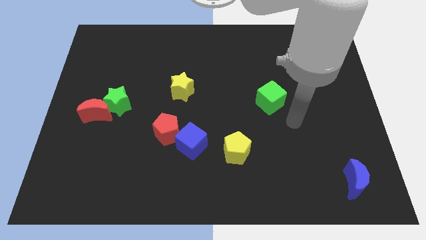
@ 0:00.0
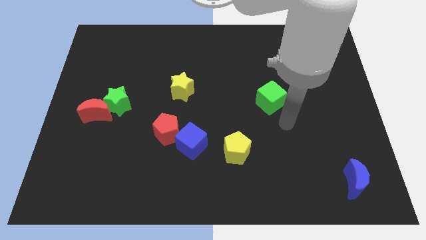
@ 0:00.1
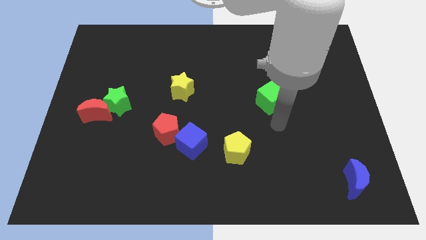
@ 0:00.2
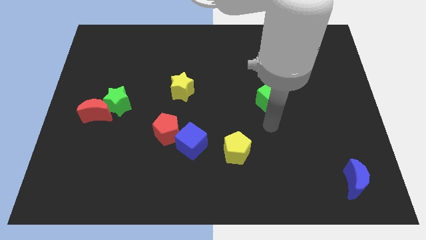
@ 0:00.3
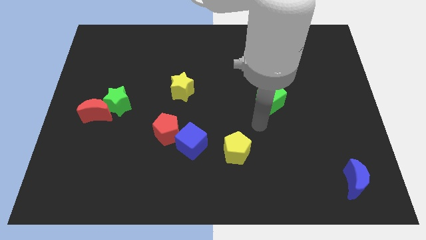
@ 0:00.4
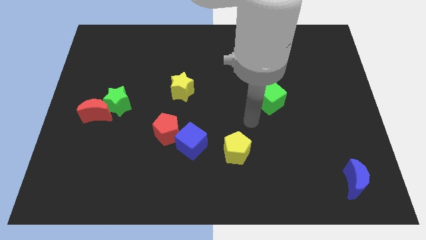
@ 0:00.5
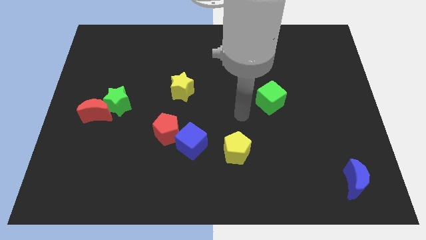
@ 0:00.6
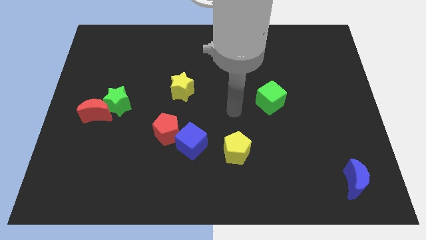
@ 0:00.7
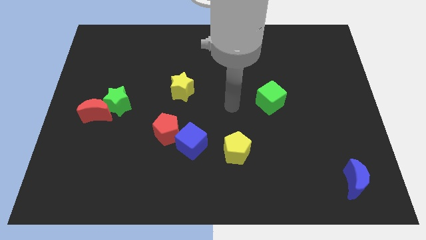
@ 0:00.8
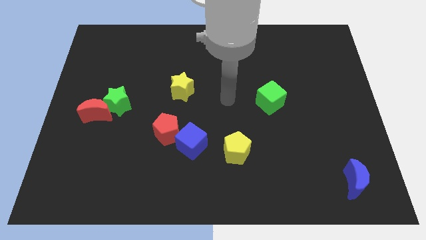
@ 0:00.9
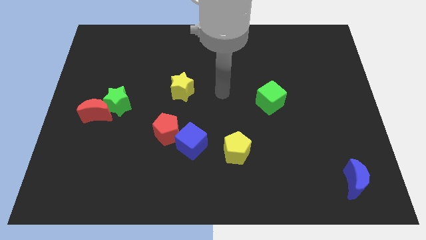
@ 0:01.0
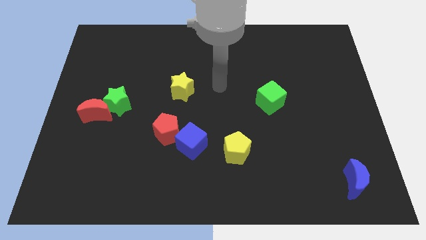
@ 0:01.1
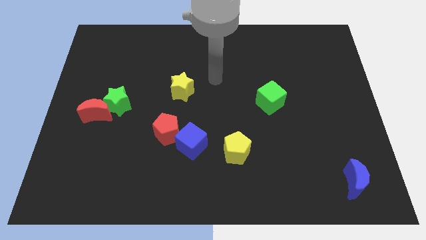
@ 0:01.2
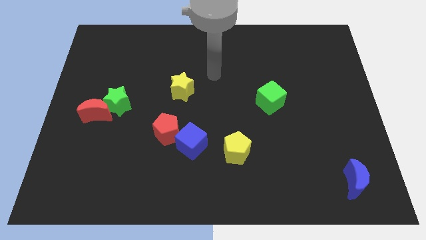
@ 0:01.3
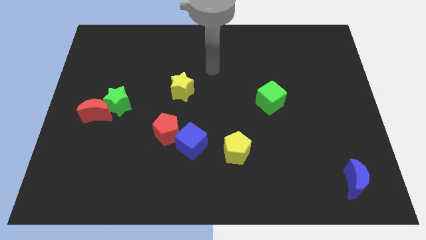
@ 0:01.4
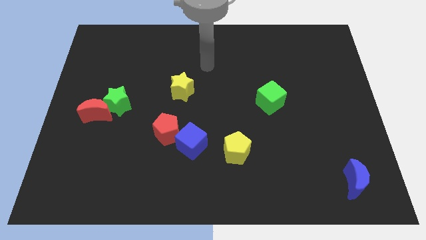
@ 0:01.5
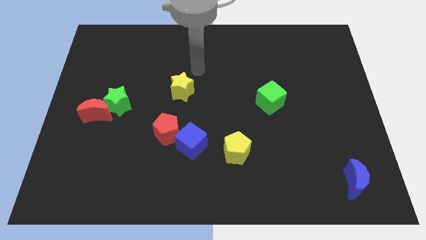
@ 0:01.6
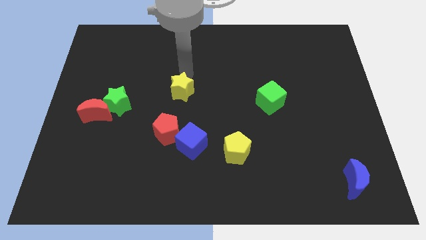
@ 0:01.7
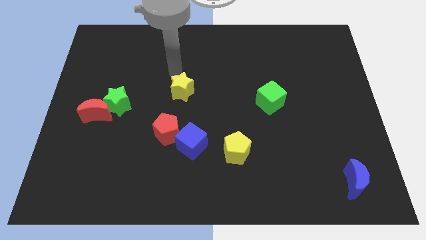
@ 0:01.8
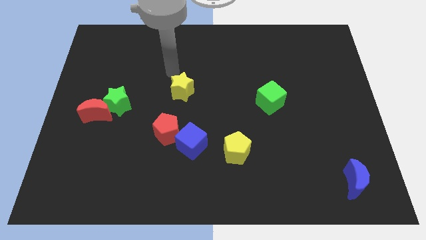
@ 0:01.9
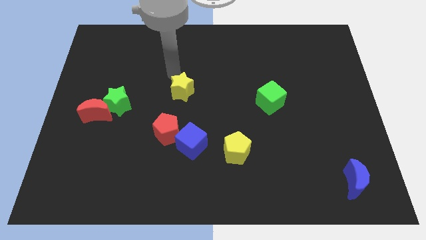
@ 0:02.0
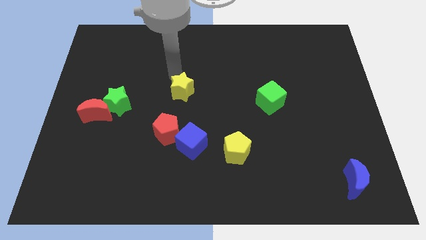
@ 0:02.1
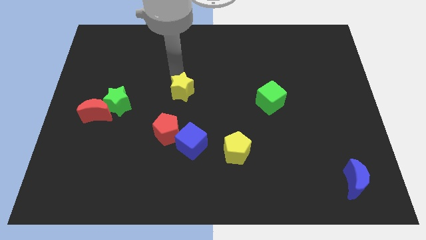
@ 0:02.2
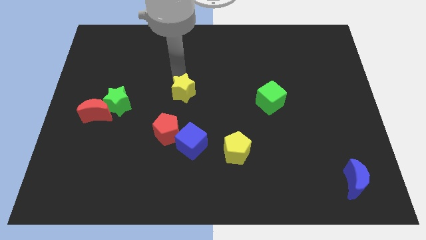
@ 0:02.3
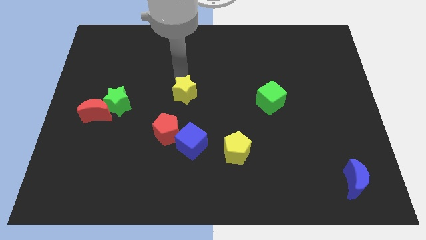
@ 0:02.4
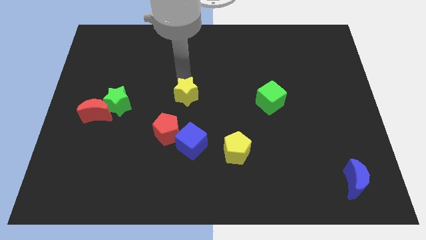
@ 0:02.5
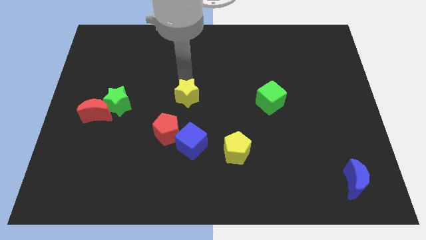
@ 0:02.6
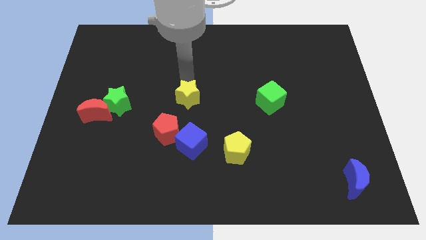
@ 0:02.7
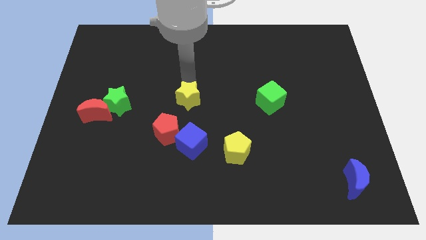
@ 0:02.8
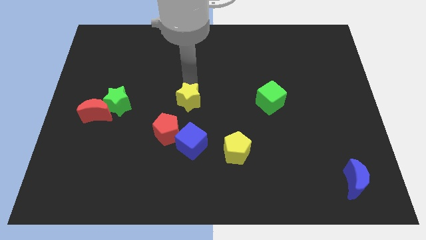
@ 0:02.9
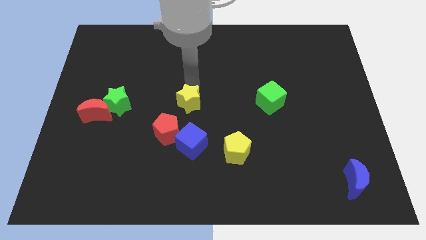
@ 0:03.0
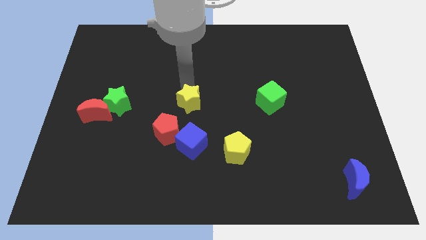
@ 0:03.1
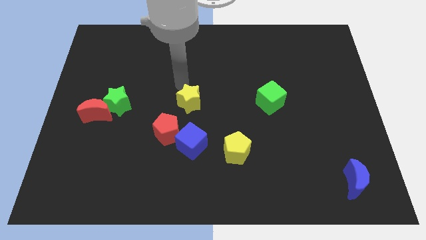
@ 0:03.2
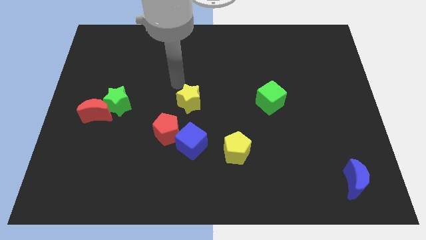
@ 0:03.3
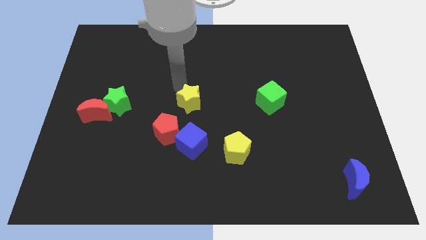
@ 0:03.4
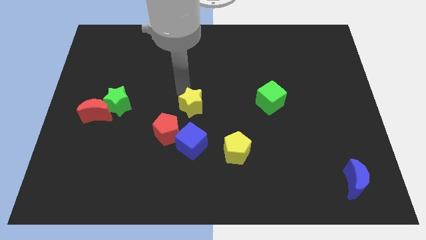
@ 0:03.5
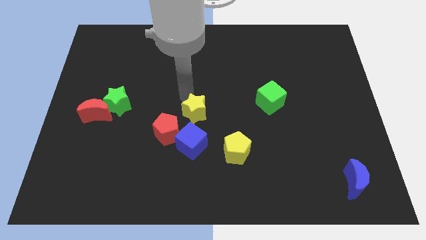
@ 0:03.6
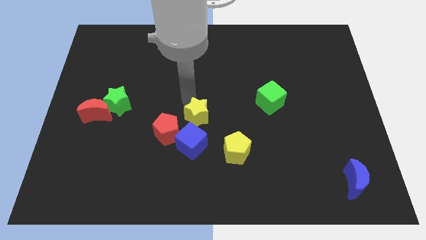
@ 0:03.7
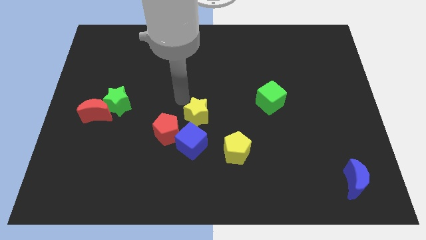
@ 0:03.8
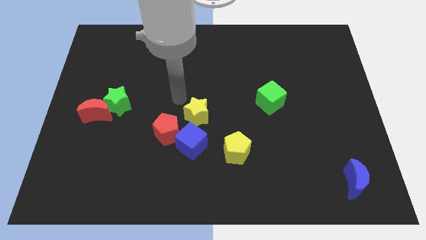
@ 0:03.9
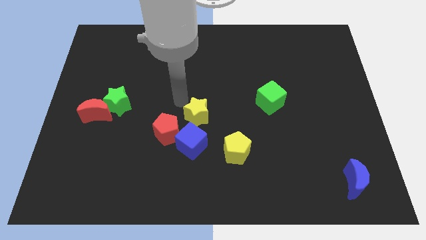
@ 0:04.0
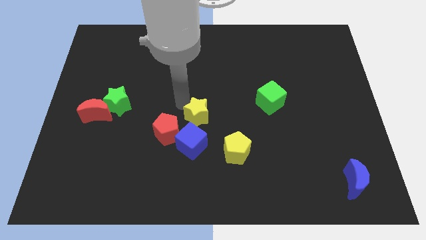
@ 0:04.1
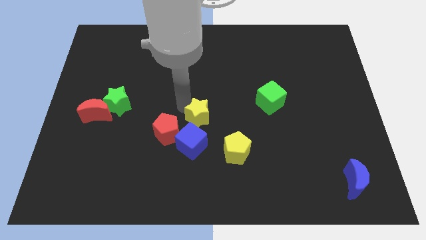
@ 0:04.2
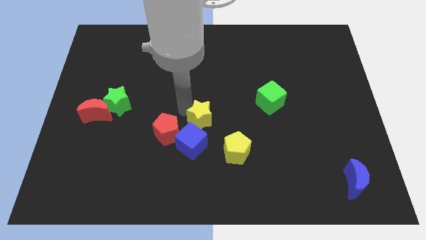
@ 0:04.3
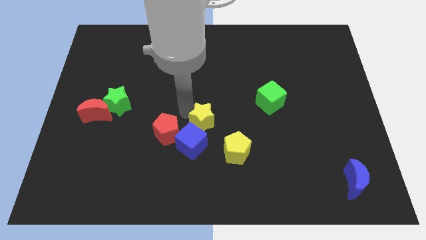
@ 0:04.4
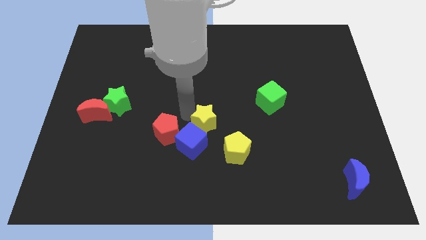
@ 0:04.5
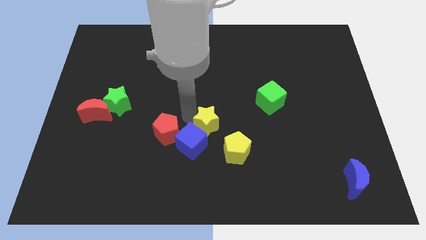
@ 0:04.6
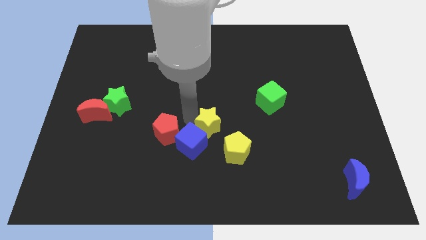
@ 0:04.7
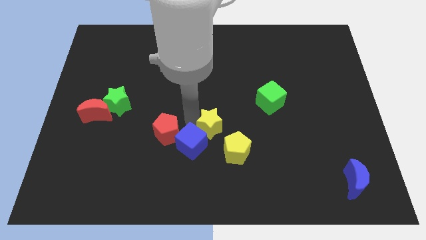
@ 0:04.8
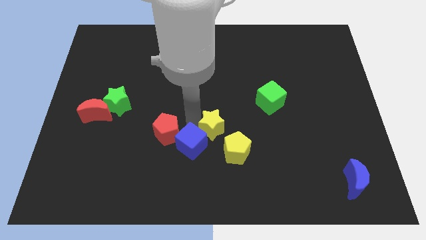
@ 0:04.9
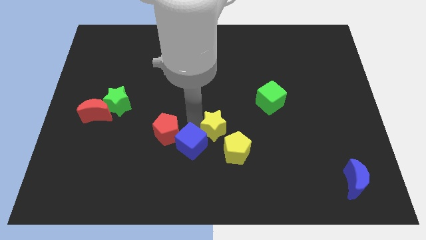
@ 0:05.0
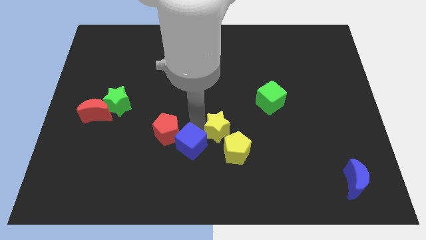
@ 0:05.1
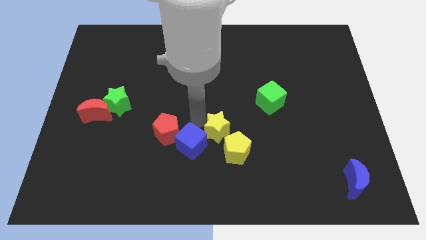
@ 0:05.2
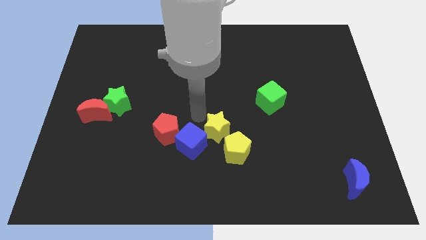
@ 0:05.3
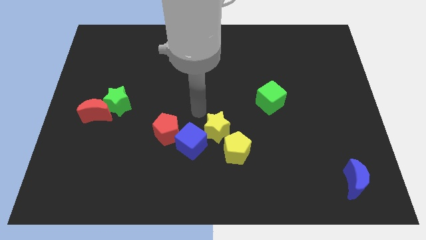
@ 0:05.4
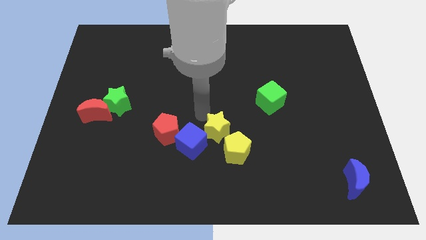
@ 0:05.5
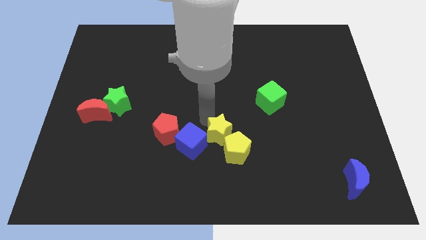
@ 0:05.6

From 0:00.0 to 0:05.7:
move the yellow star to the yellow pentagon

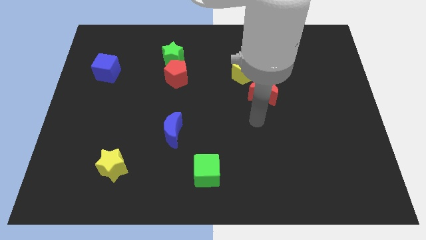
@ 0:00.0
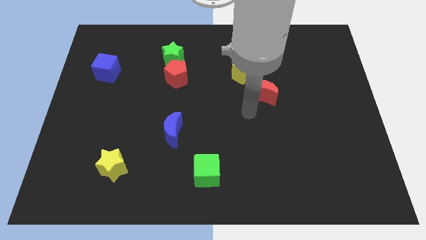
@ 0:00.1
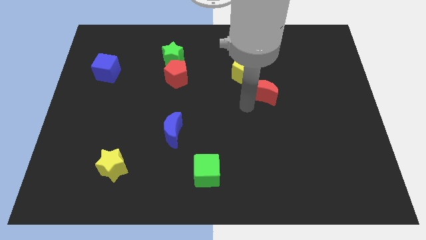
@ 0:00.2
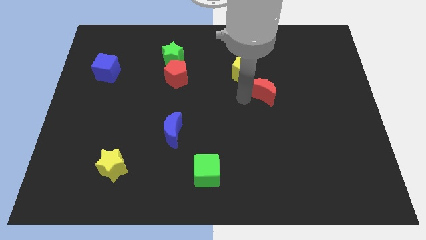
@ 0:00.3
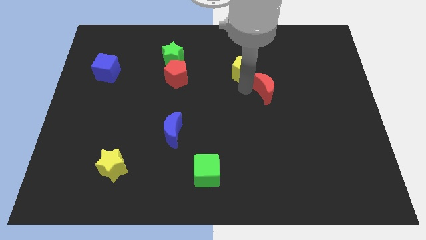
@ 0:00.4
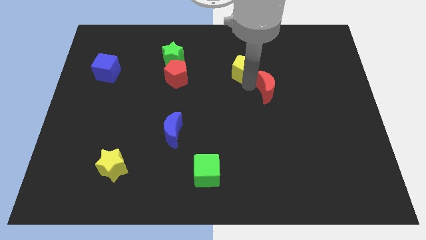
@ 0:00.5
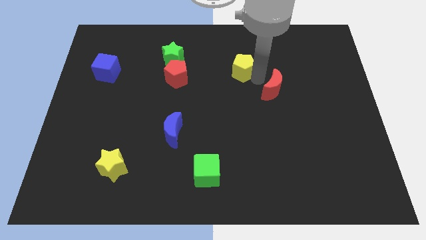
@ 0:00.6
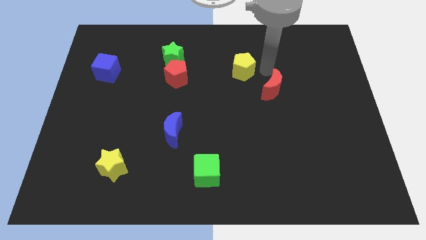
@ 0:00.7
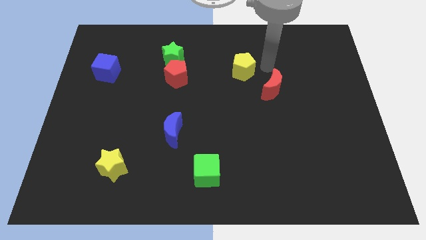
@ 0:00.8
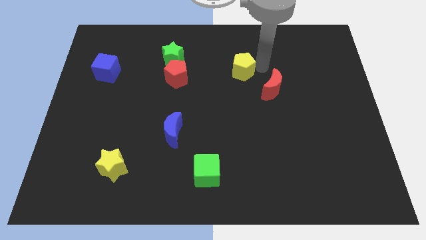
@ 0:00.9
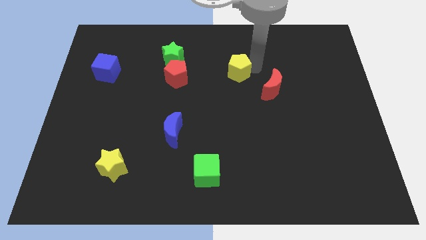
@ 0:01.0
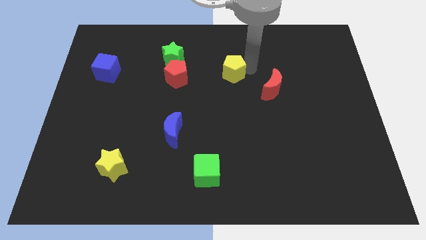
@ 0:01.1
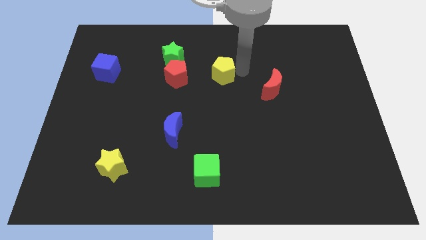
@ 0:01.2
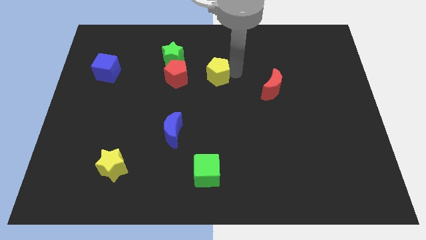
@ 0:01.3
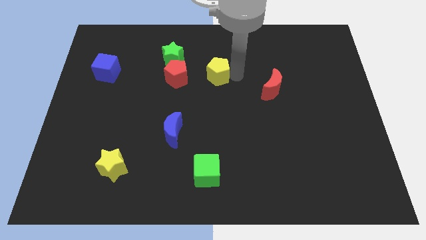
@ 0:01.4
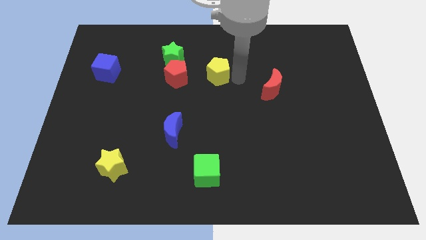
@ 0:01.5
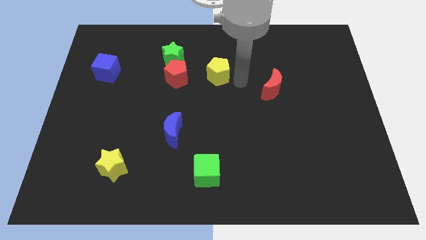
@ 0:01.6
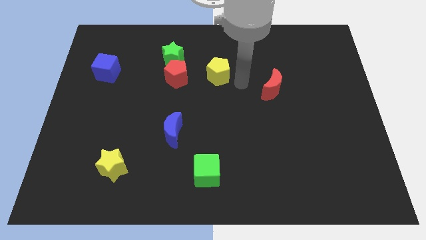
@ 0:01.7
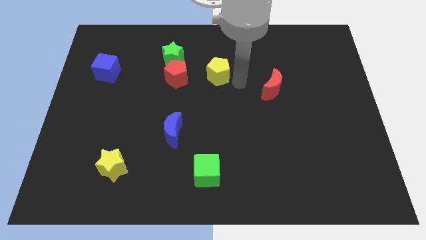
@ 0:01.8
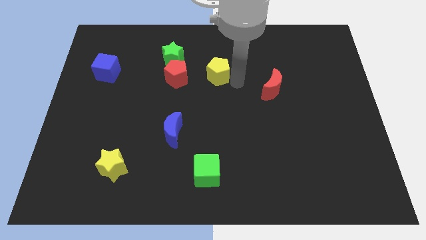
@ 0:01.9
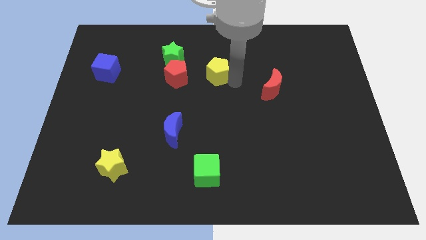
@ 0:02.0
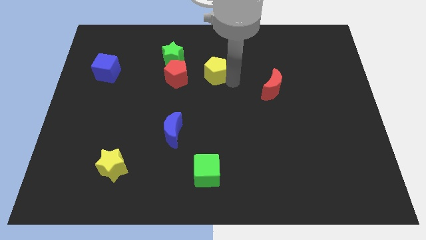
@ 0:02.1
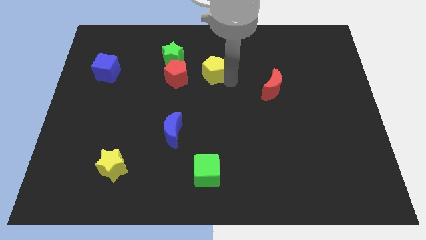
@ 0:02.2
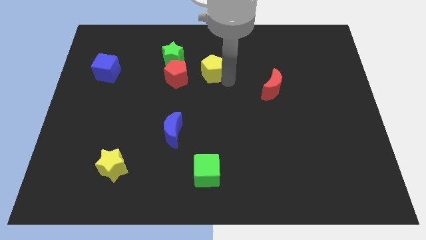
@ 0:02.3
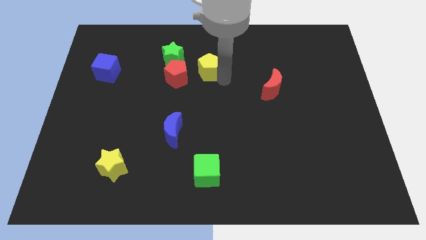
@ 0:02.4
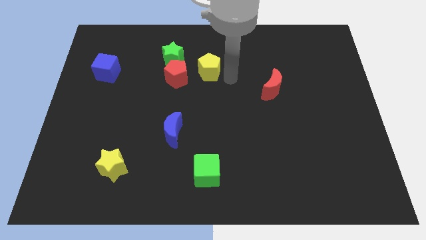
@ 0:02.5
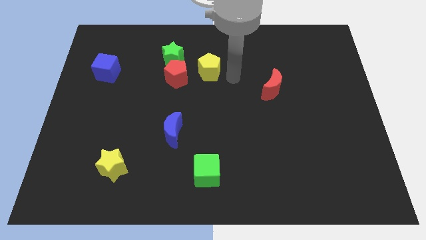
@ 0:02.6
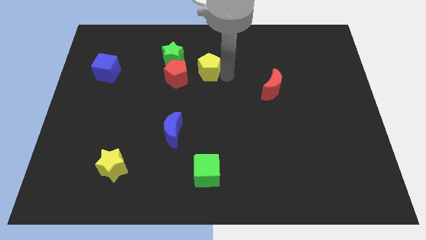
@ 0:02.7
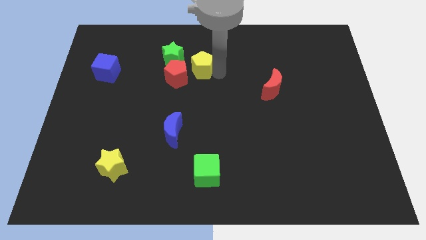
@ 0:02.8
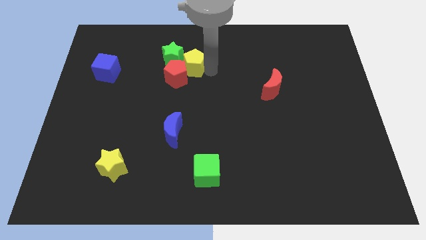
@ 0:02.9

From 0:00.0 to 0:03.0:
put the yellow pentagon next to the green star
